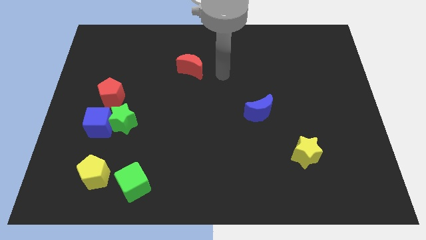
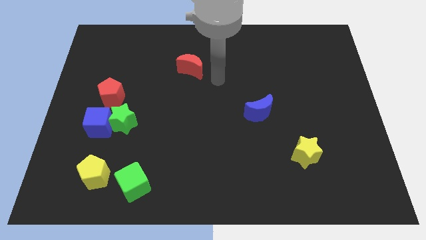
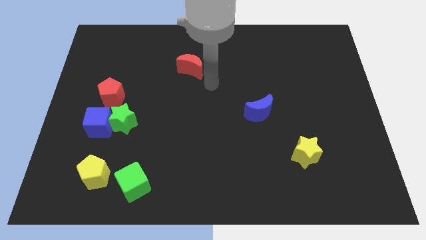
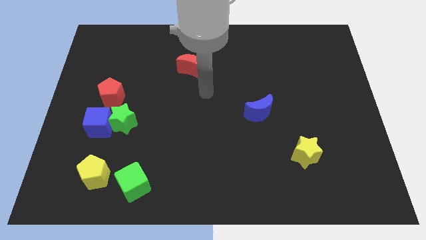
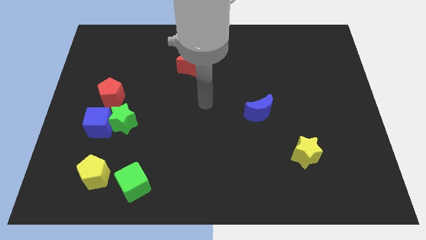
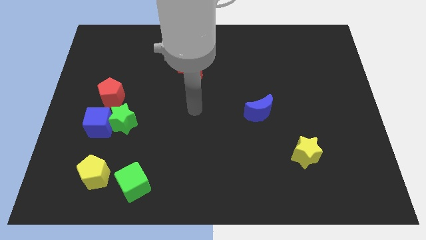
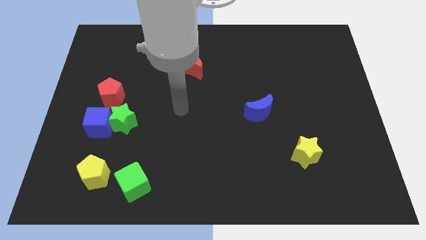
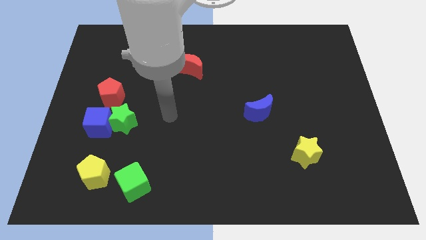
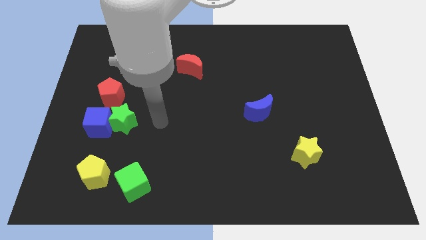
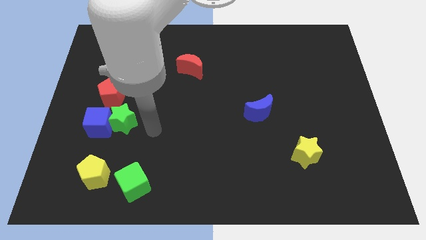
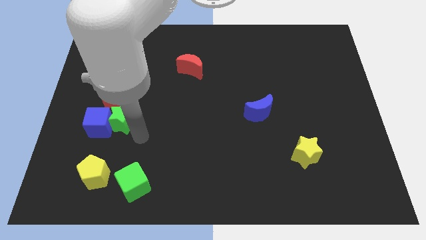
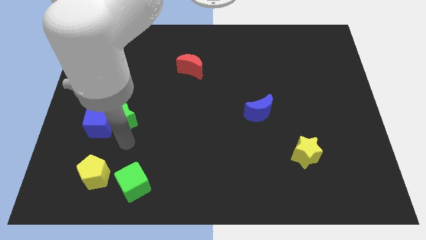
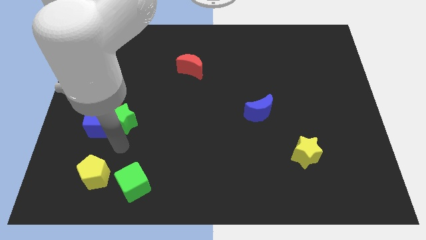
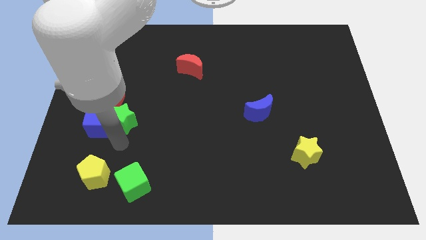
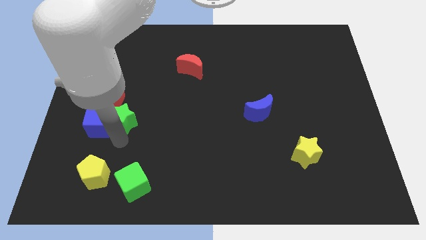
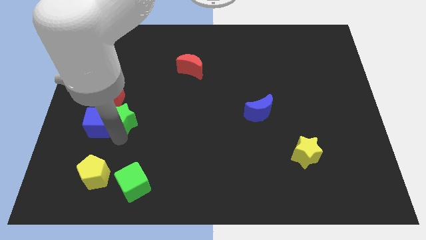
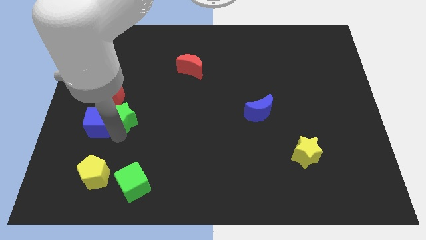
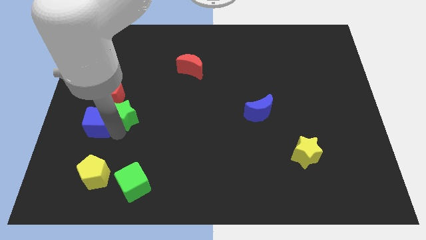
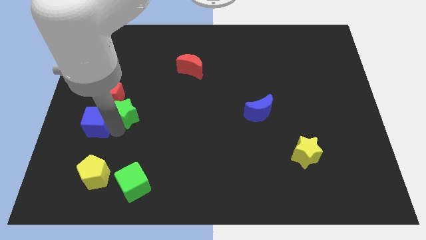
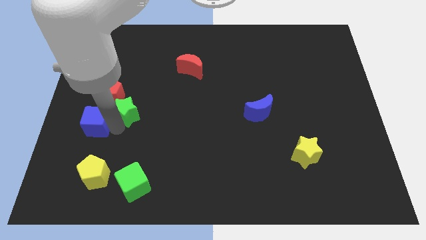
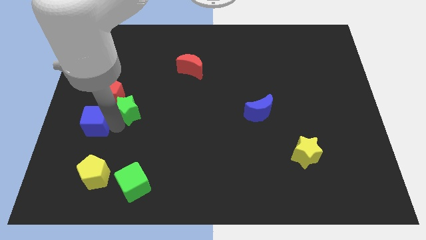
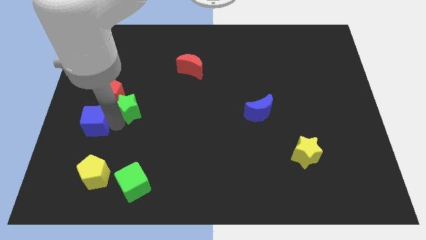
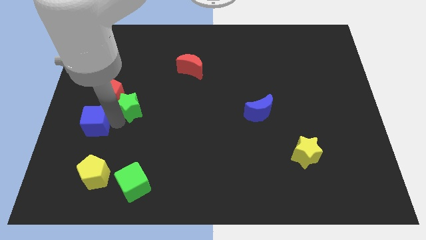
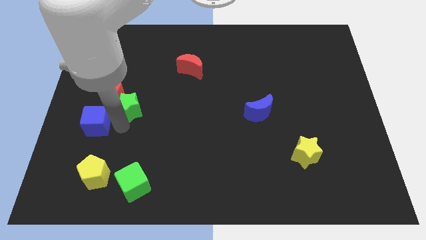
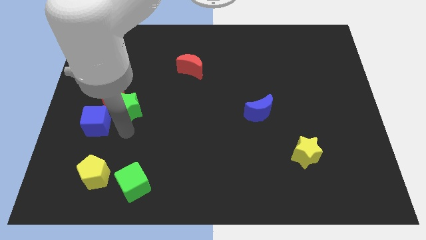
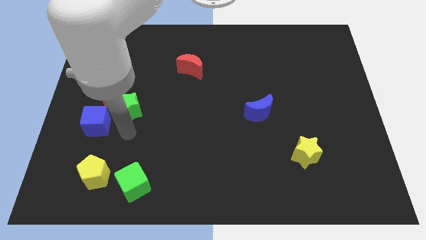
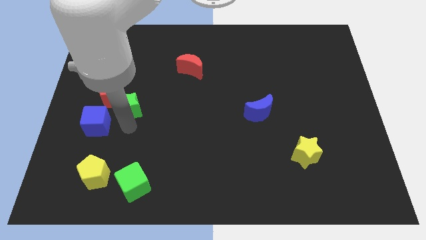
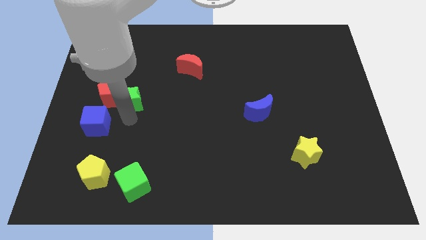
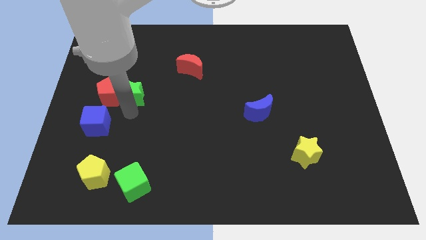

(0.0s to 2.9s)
move the green star somewhat up

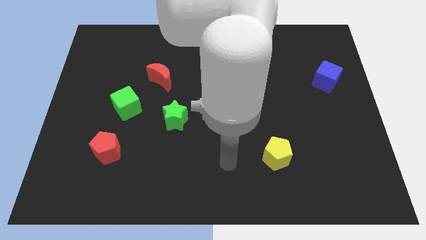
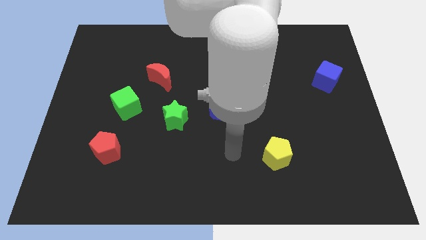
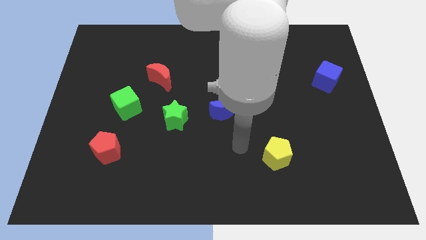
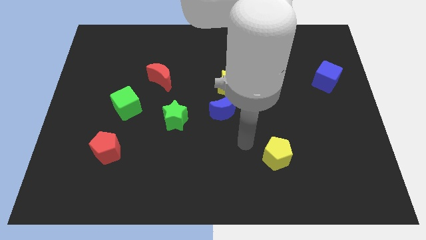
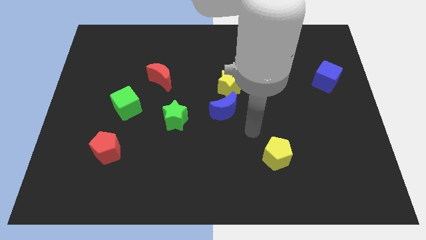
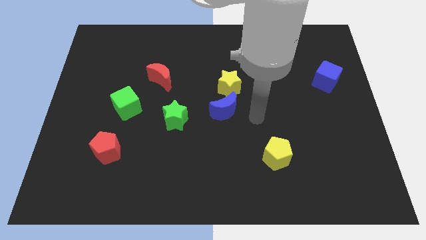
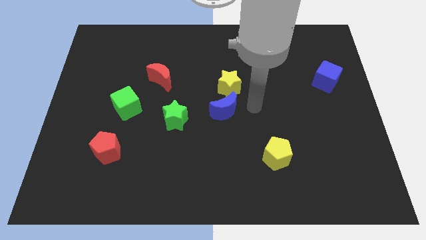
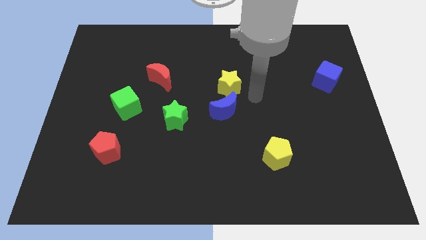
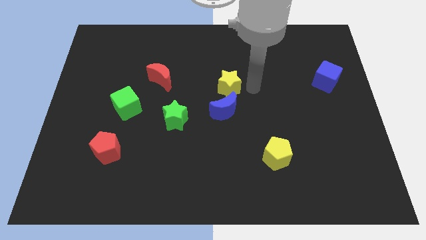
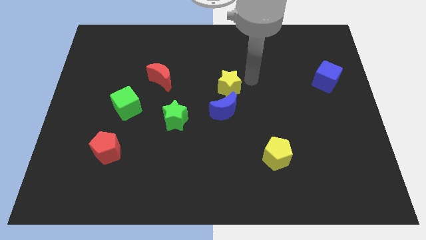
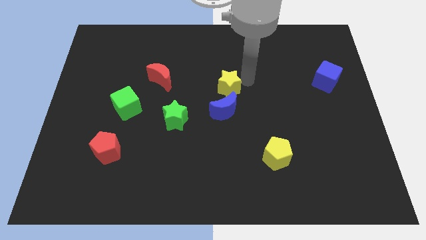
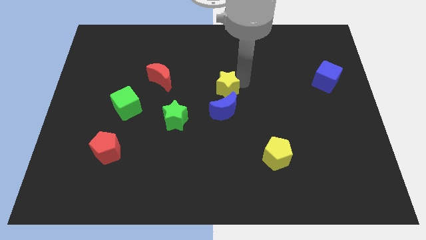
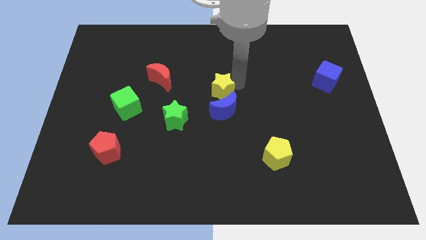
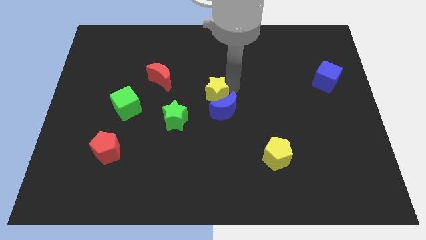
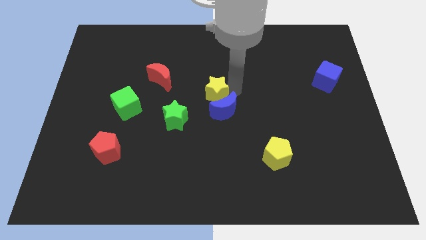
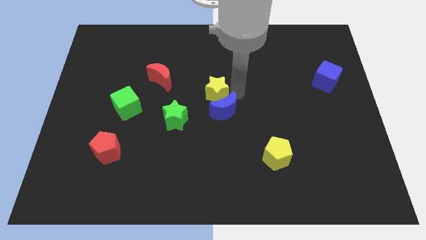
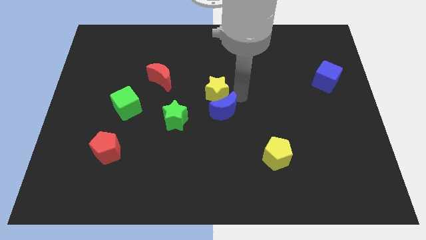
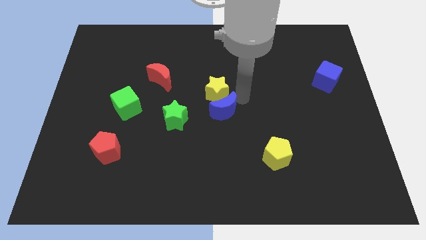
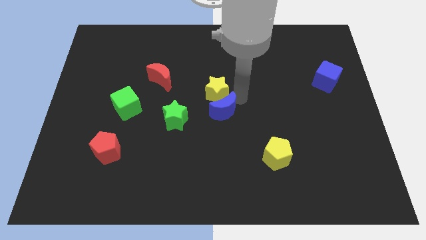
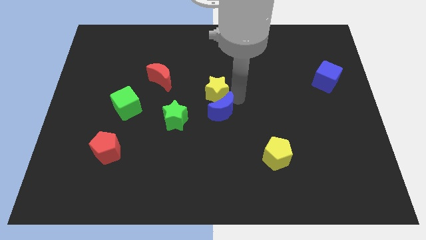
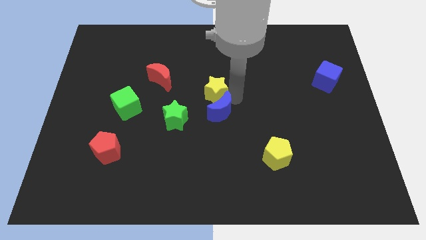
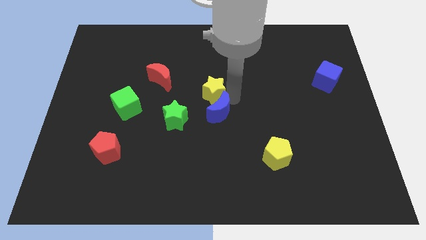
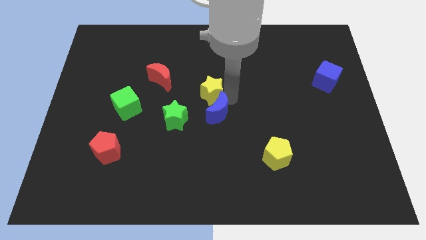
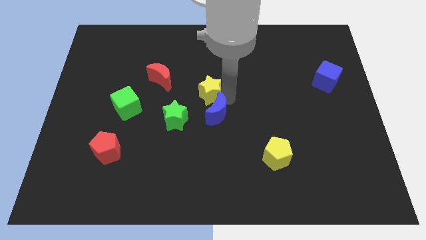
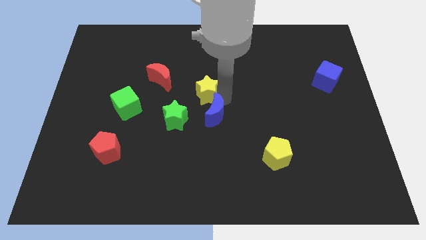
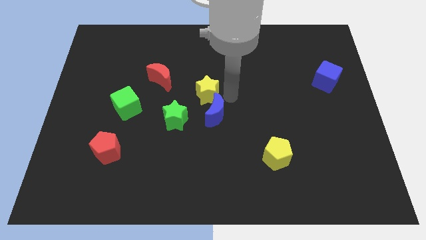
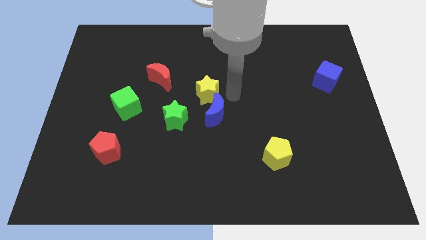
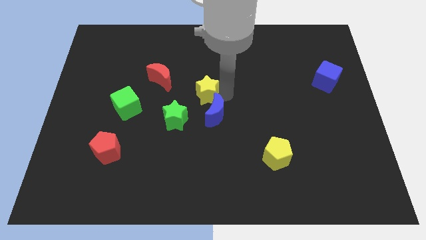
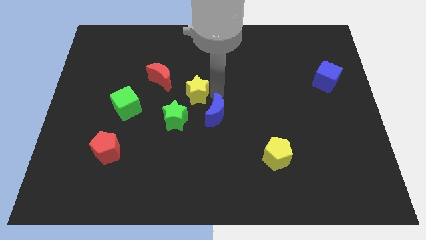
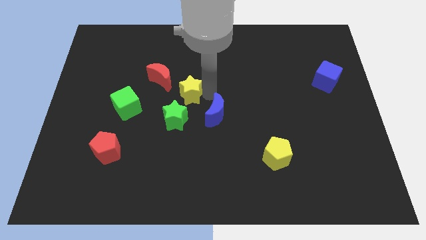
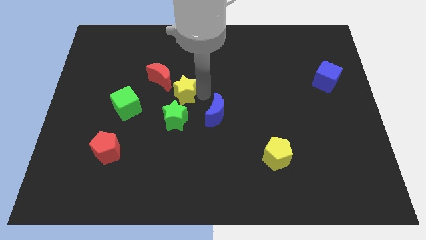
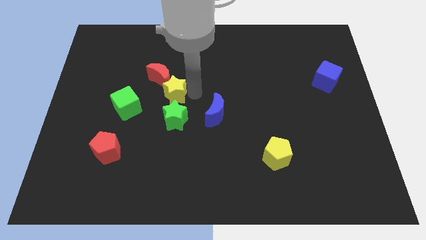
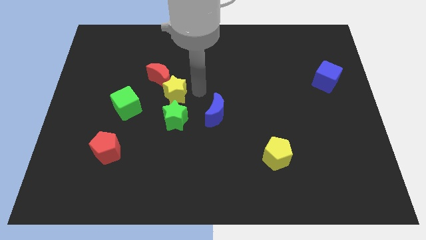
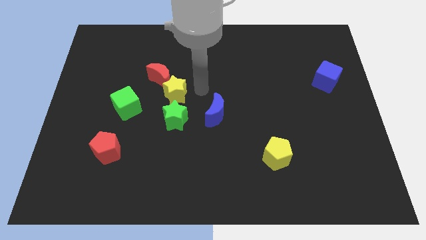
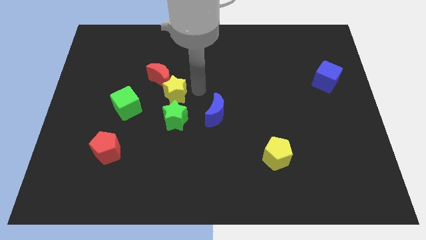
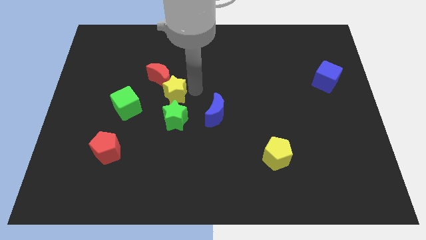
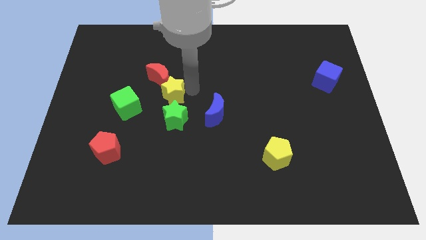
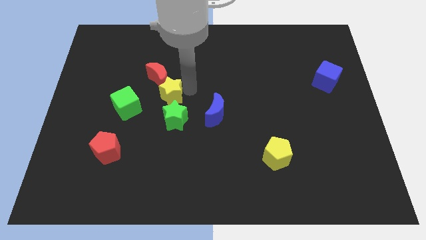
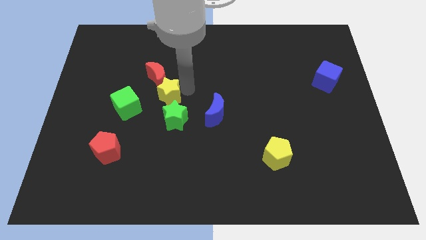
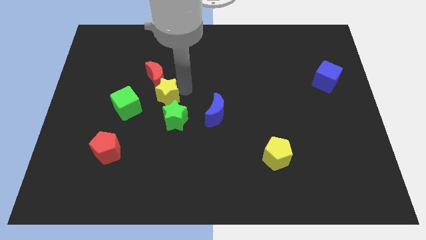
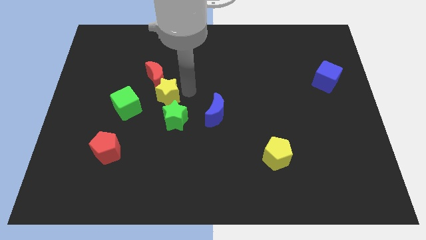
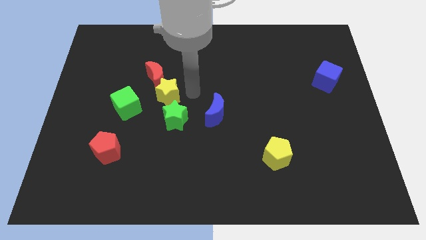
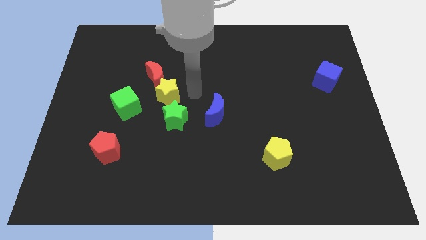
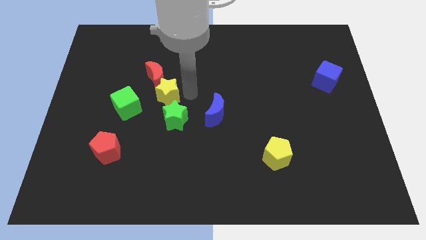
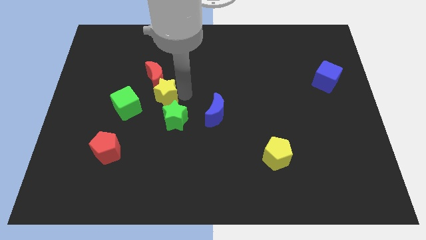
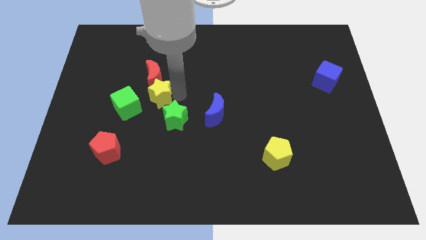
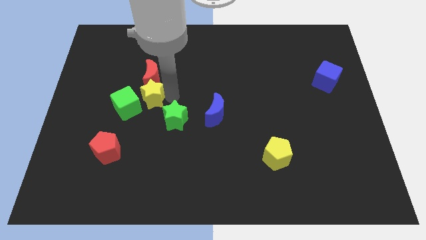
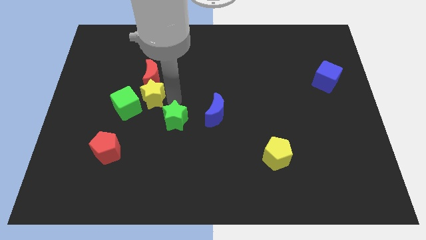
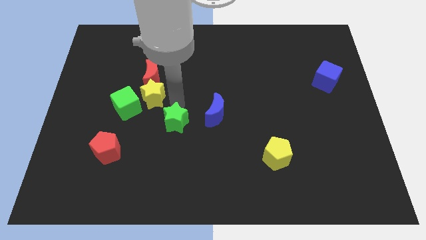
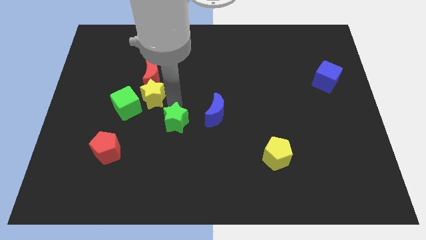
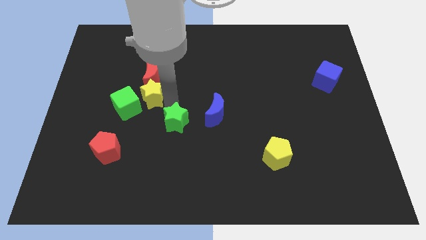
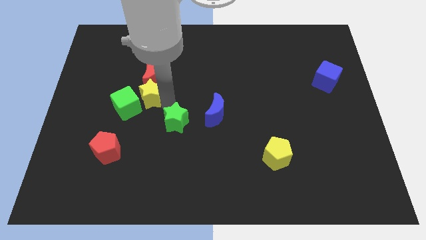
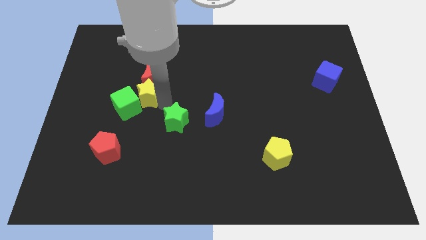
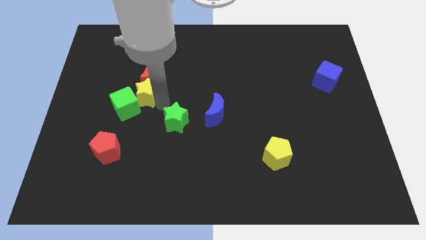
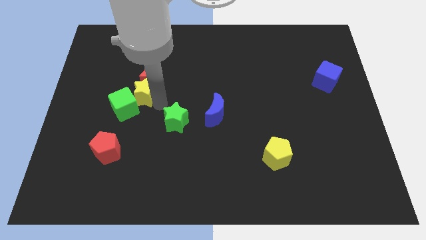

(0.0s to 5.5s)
move the yellow star to the left
